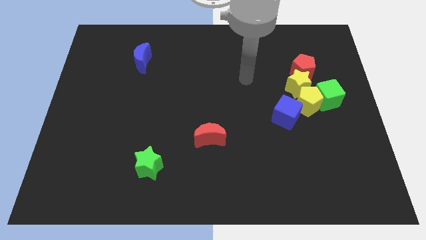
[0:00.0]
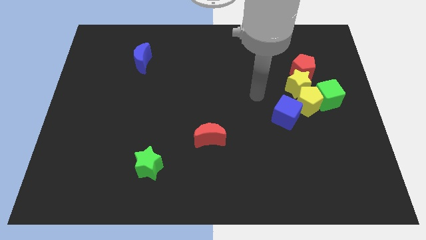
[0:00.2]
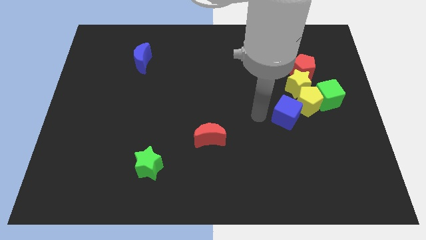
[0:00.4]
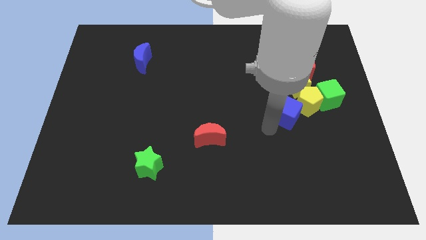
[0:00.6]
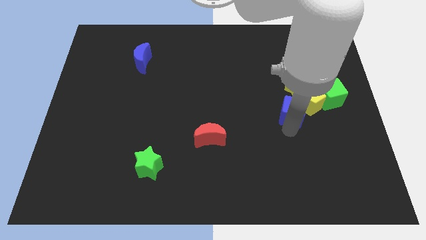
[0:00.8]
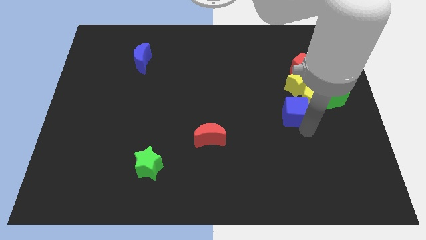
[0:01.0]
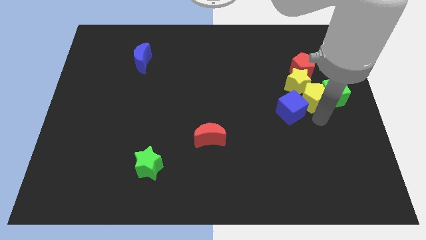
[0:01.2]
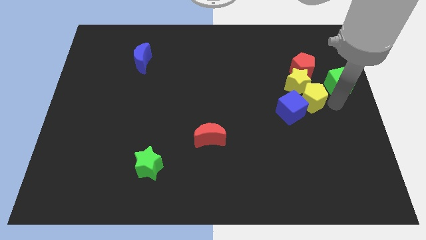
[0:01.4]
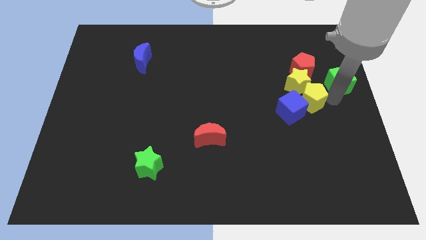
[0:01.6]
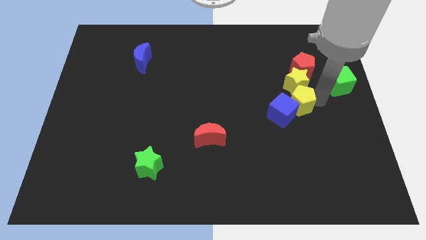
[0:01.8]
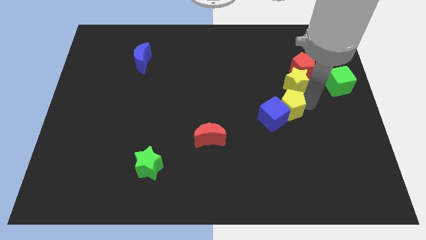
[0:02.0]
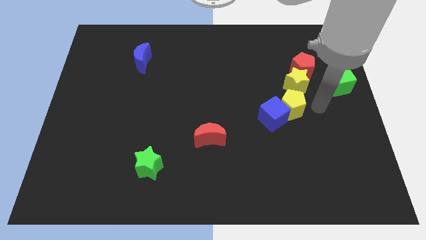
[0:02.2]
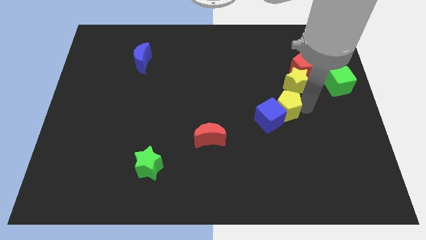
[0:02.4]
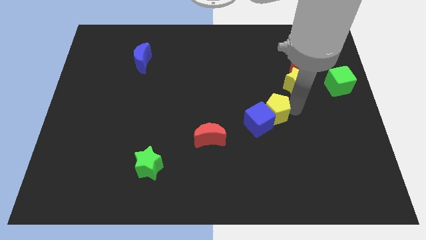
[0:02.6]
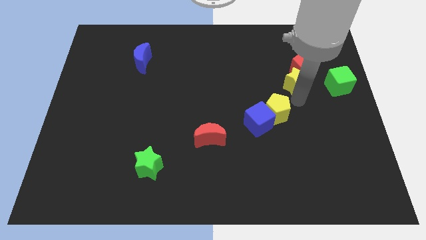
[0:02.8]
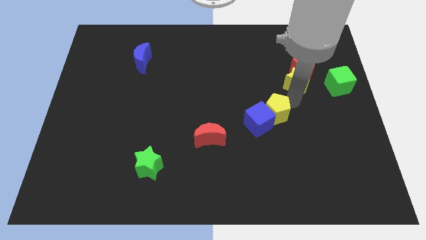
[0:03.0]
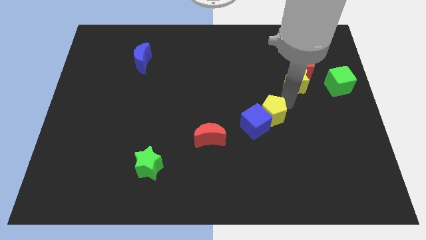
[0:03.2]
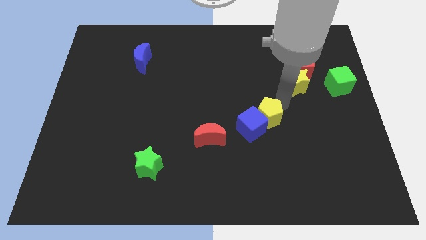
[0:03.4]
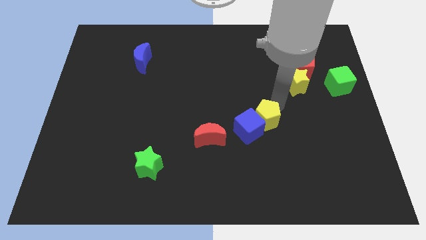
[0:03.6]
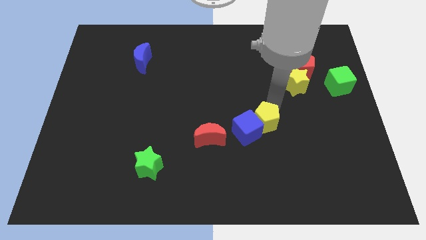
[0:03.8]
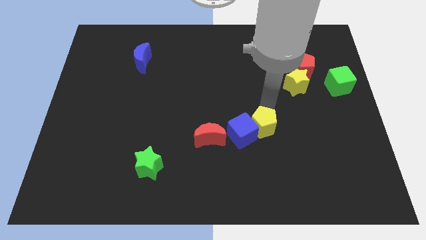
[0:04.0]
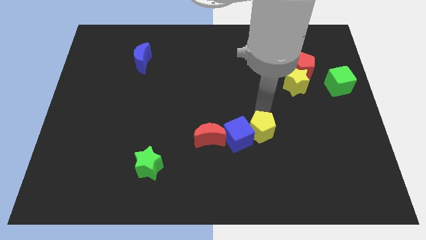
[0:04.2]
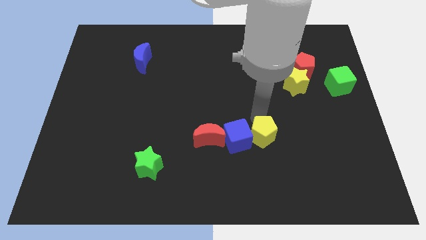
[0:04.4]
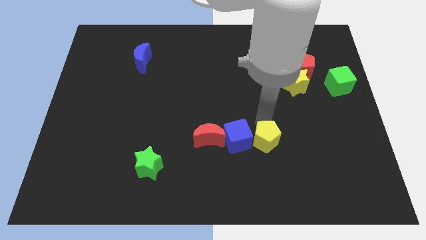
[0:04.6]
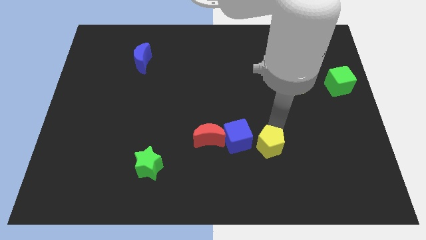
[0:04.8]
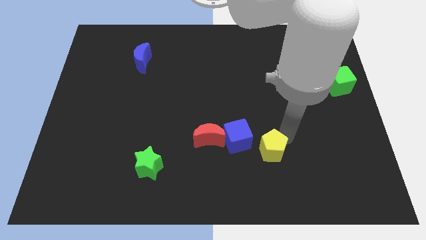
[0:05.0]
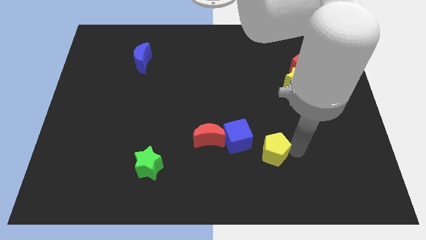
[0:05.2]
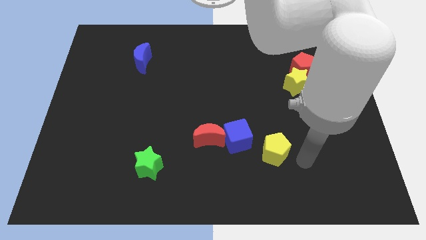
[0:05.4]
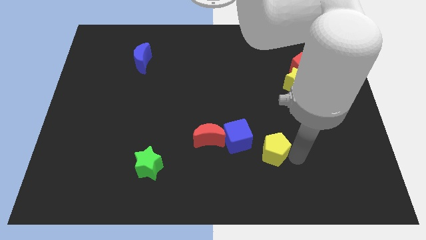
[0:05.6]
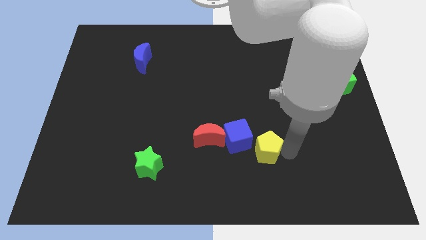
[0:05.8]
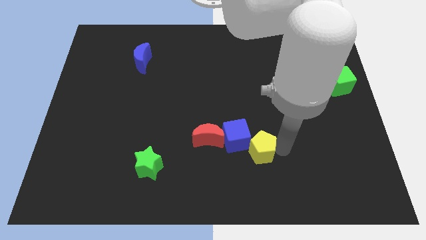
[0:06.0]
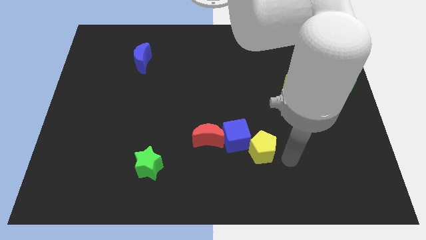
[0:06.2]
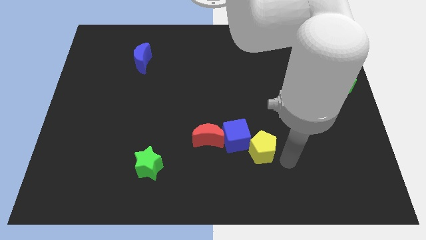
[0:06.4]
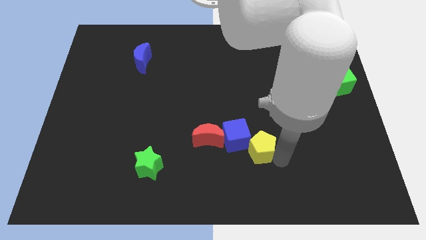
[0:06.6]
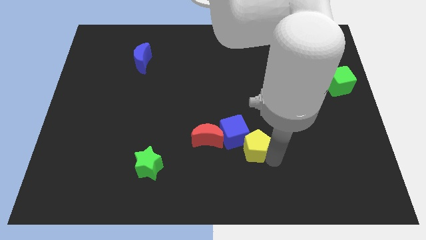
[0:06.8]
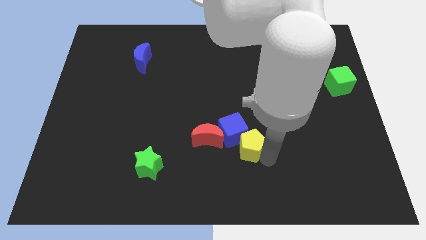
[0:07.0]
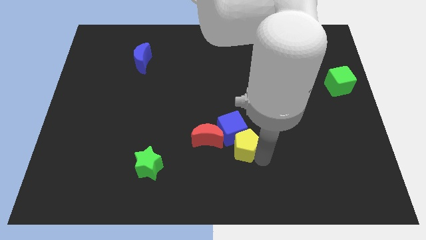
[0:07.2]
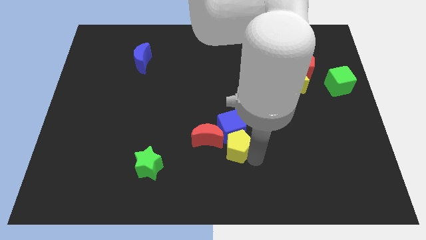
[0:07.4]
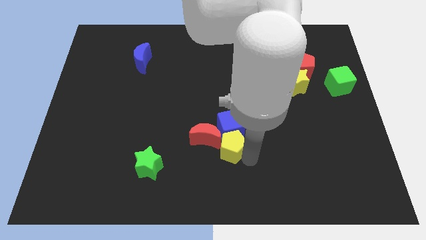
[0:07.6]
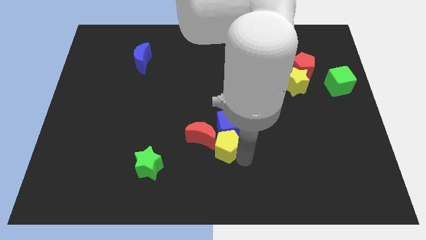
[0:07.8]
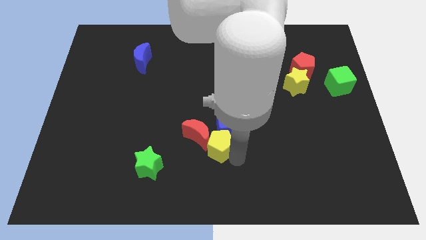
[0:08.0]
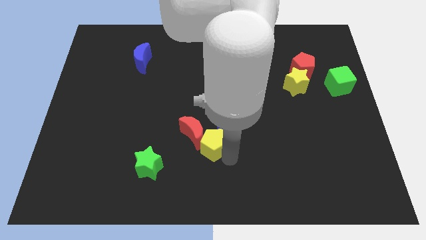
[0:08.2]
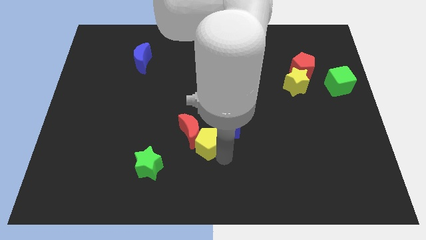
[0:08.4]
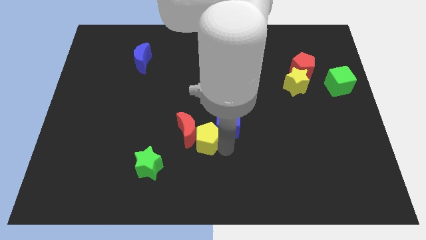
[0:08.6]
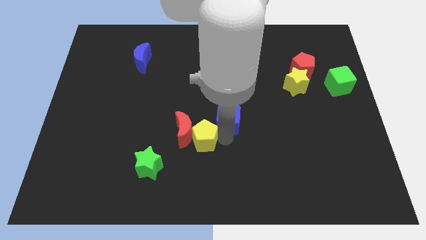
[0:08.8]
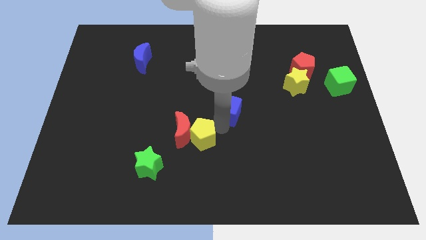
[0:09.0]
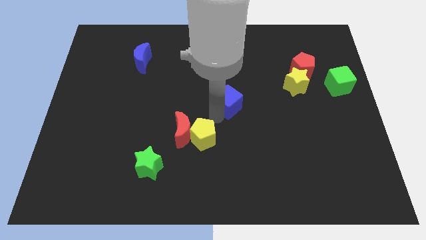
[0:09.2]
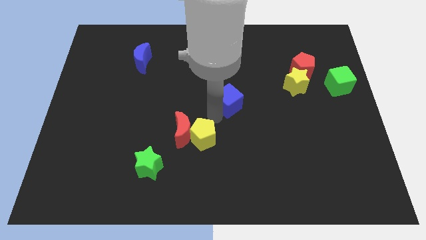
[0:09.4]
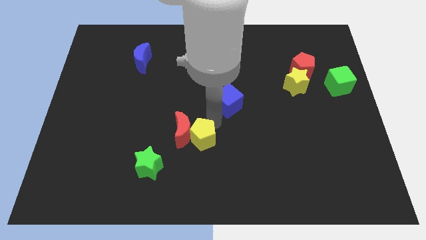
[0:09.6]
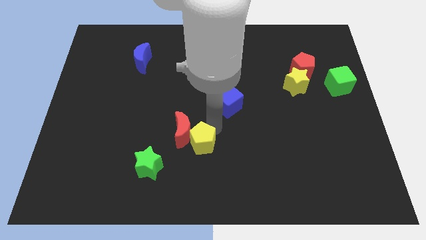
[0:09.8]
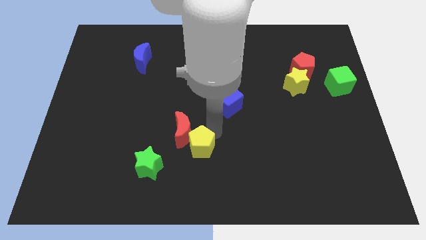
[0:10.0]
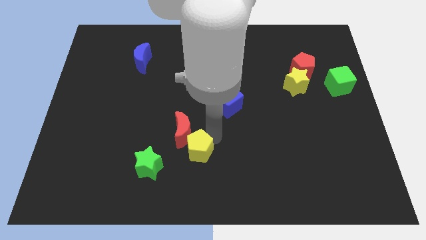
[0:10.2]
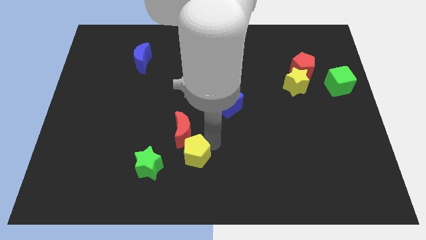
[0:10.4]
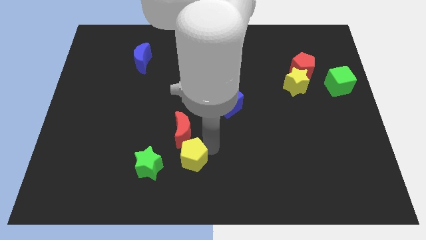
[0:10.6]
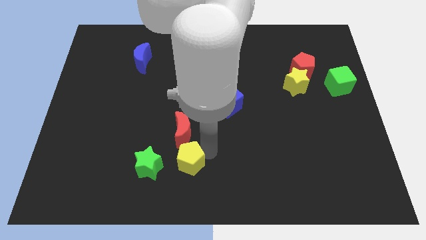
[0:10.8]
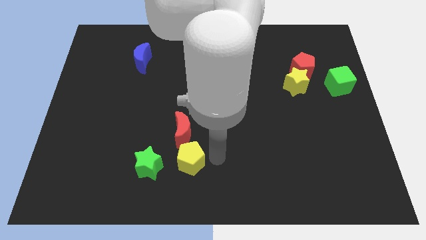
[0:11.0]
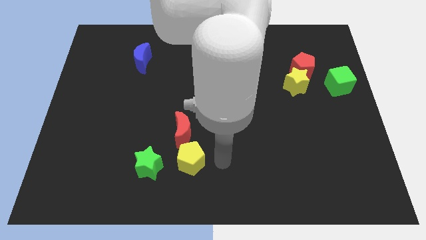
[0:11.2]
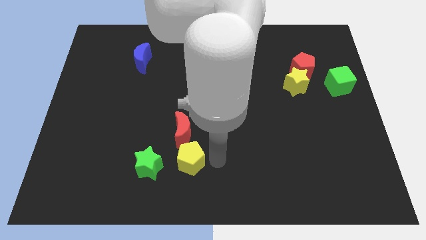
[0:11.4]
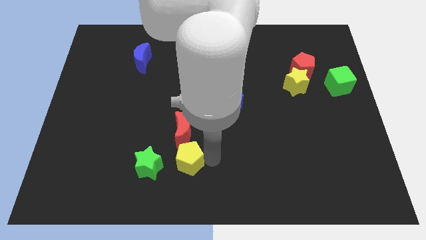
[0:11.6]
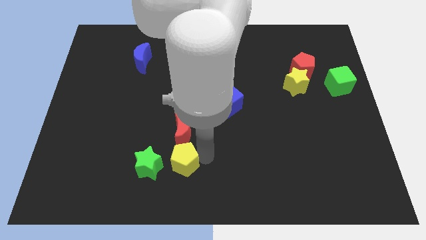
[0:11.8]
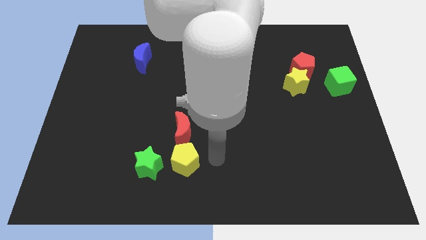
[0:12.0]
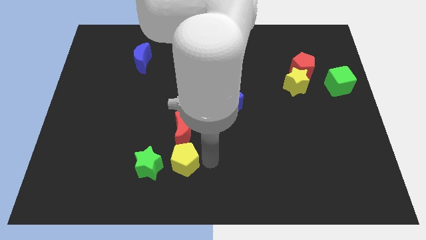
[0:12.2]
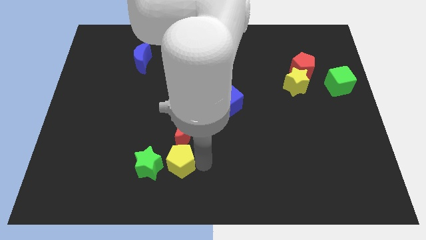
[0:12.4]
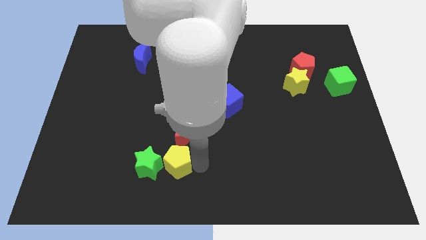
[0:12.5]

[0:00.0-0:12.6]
move the yellow pentagon to the green star

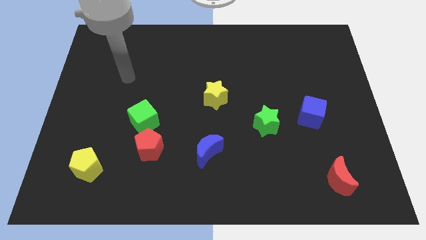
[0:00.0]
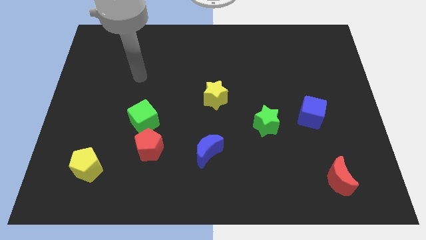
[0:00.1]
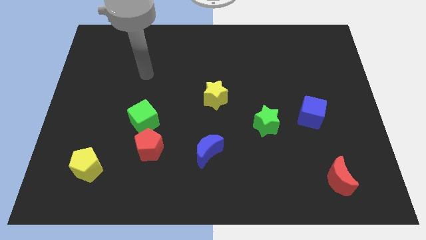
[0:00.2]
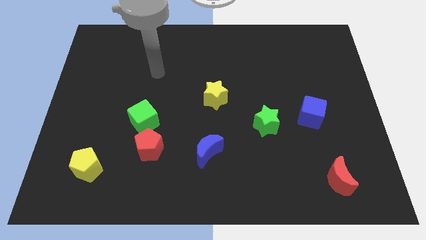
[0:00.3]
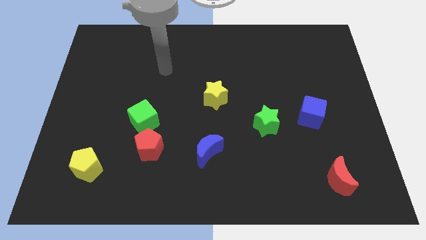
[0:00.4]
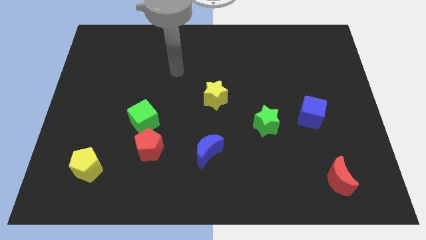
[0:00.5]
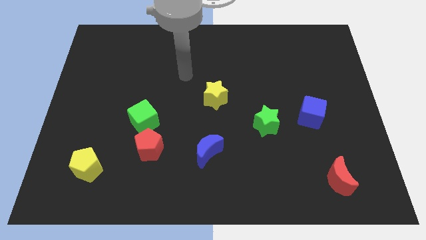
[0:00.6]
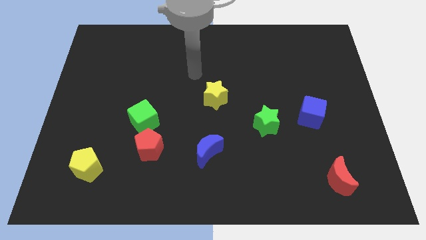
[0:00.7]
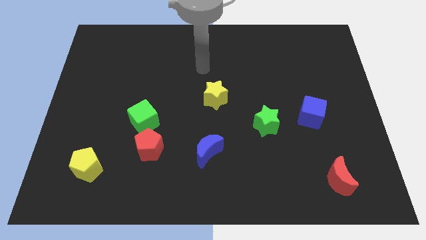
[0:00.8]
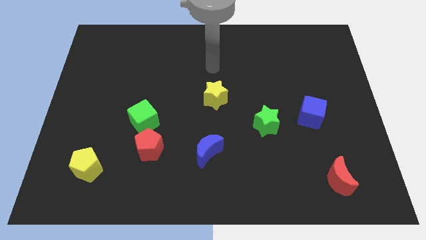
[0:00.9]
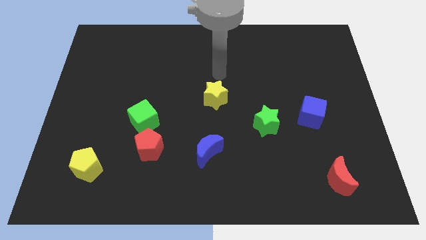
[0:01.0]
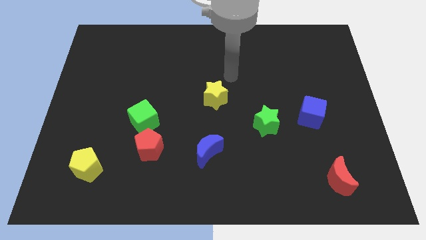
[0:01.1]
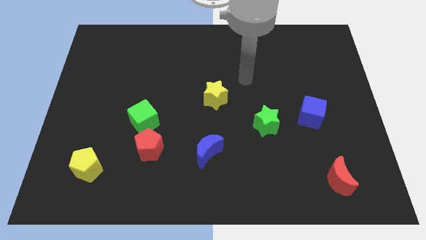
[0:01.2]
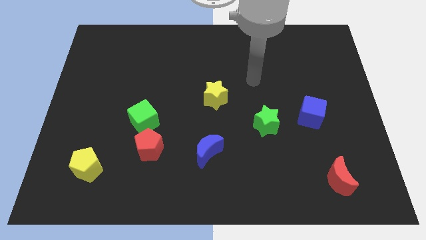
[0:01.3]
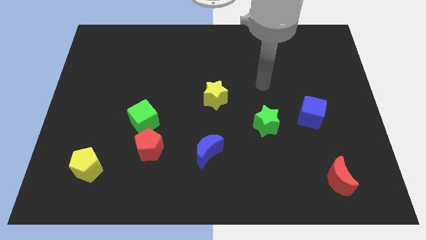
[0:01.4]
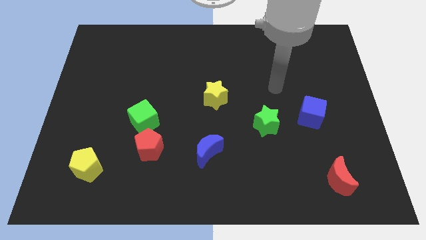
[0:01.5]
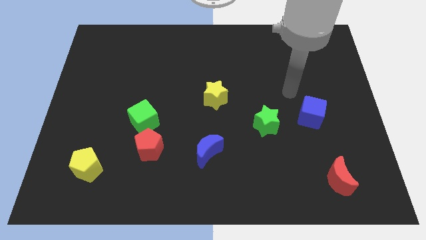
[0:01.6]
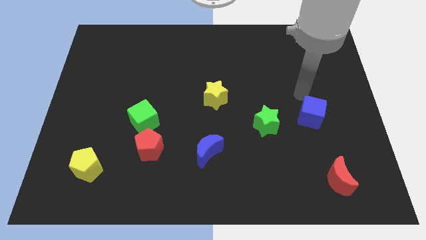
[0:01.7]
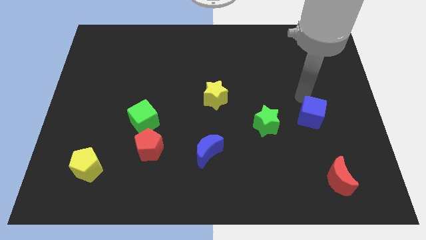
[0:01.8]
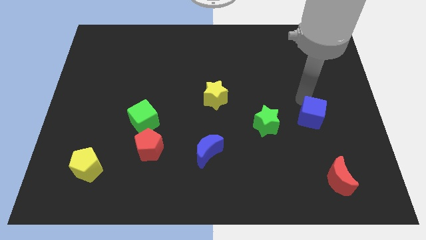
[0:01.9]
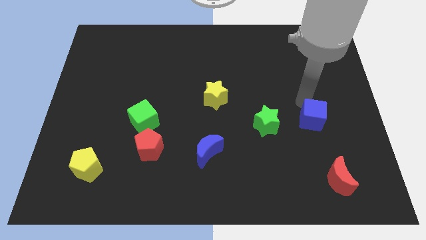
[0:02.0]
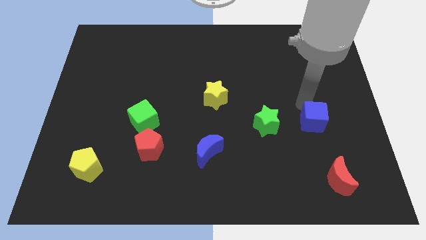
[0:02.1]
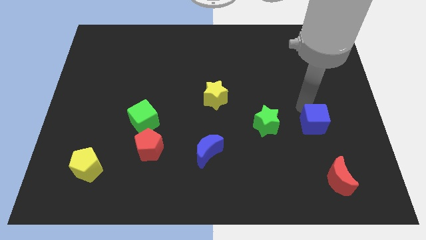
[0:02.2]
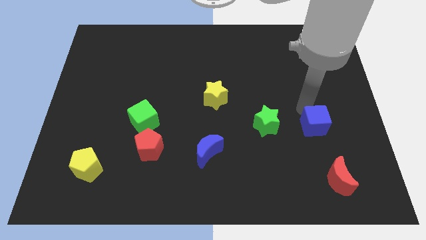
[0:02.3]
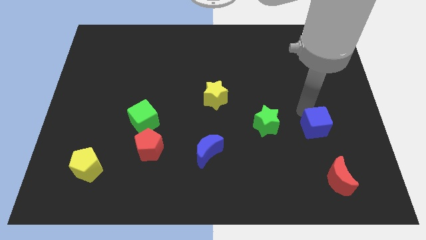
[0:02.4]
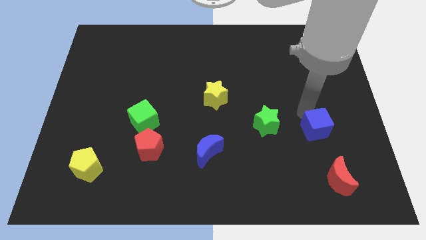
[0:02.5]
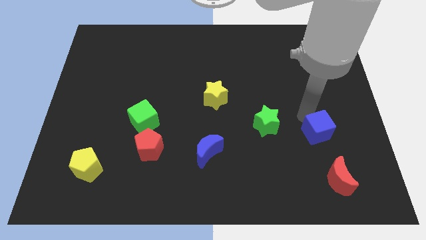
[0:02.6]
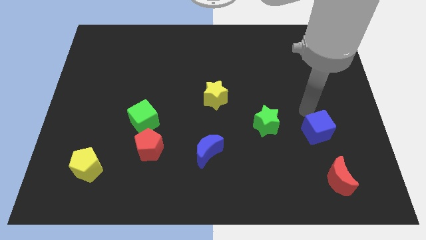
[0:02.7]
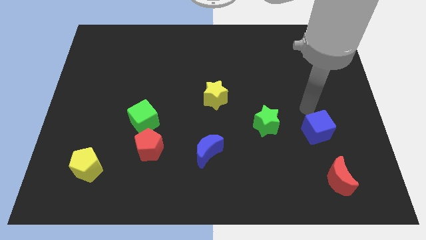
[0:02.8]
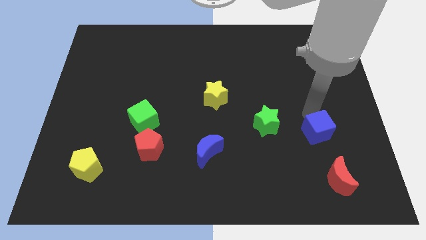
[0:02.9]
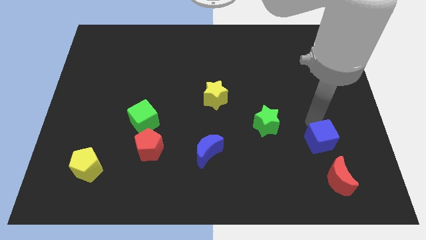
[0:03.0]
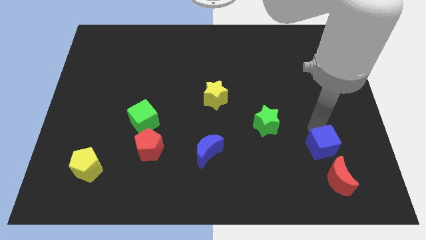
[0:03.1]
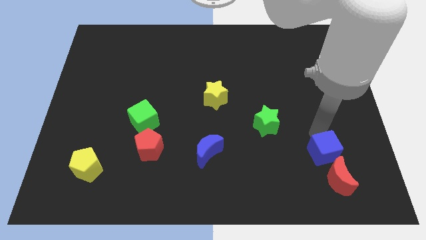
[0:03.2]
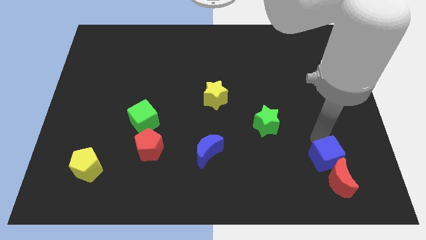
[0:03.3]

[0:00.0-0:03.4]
put the blue cube close to the red moon
